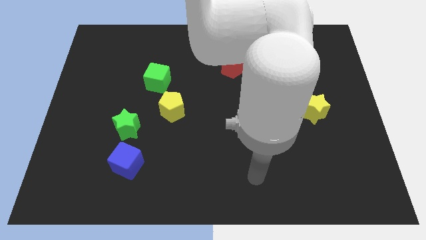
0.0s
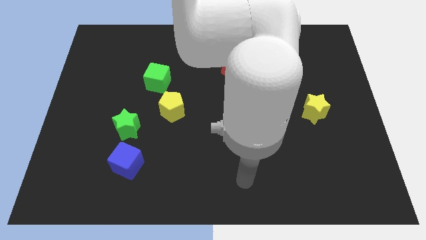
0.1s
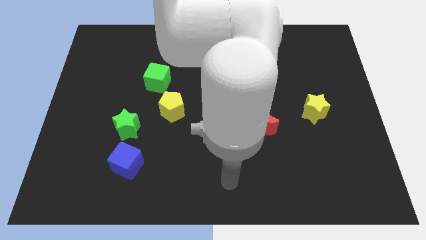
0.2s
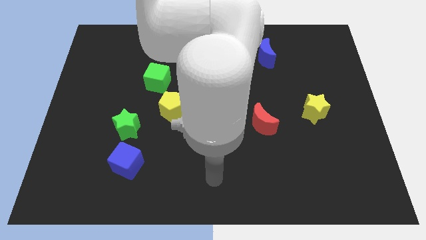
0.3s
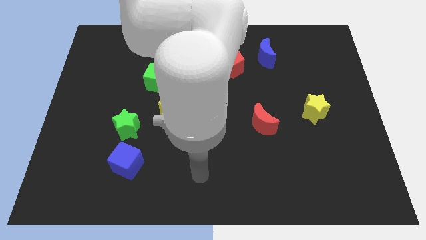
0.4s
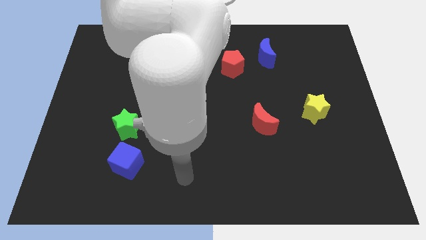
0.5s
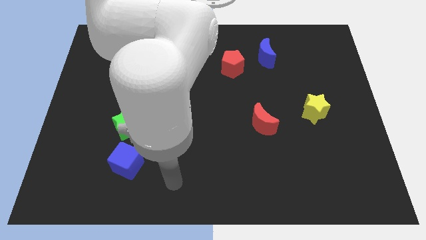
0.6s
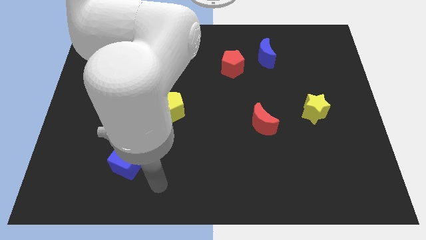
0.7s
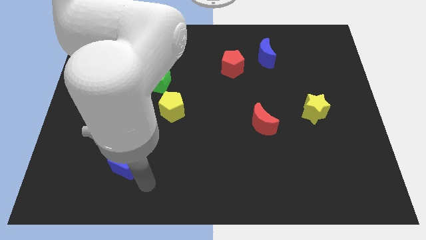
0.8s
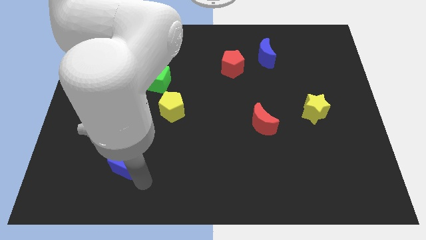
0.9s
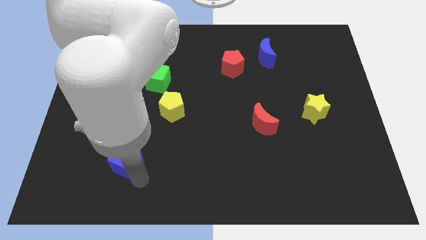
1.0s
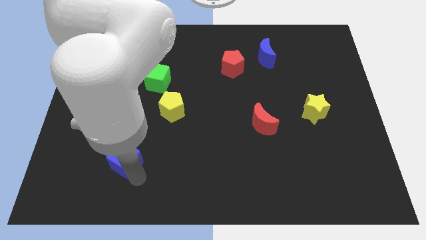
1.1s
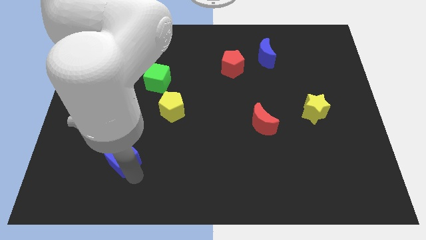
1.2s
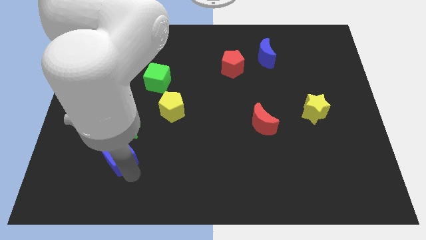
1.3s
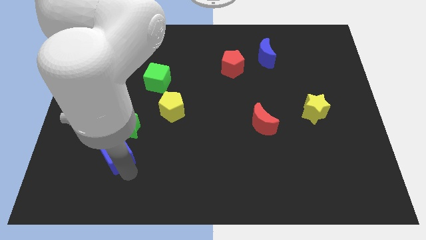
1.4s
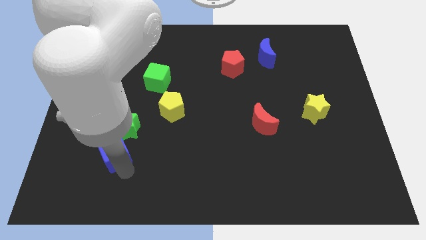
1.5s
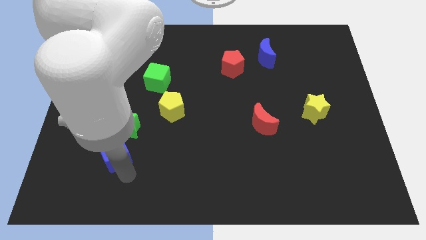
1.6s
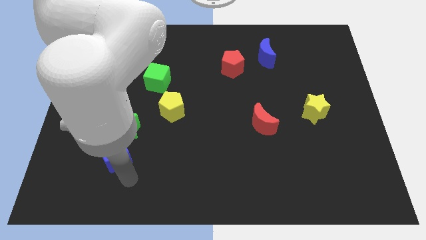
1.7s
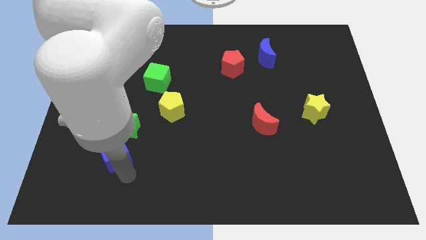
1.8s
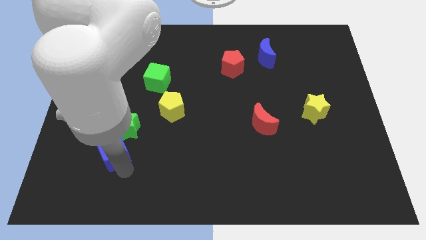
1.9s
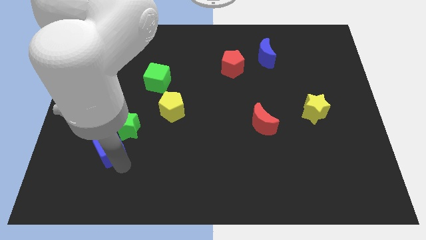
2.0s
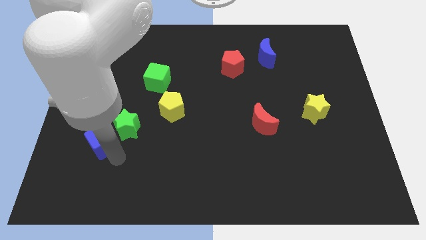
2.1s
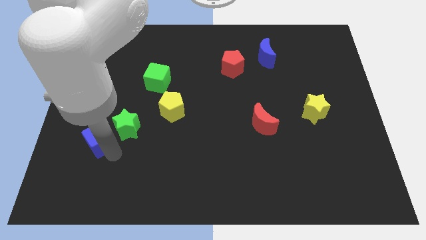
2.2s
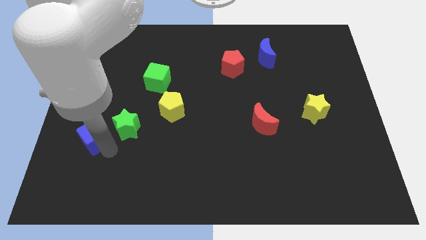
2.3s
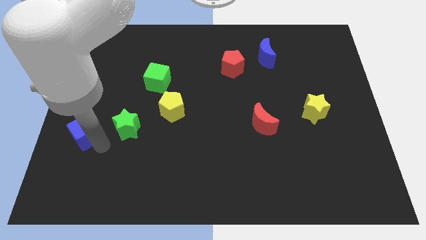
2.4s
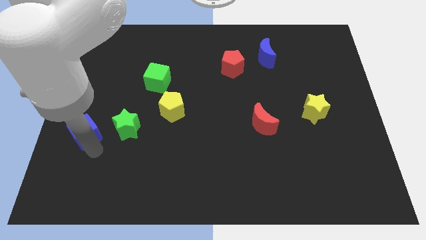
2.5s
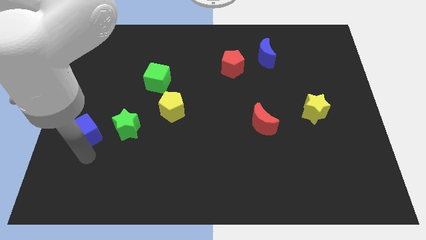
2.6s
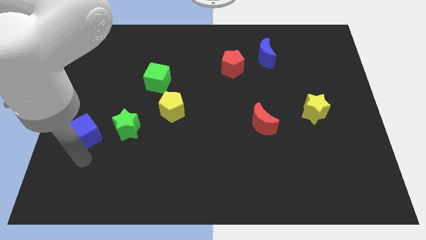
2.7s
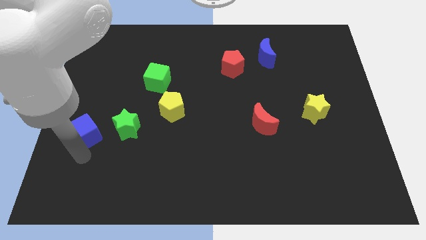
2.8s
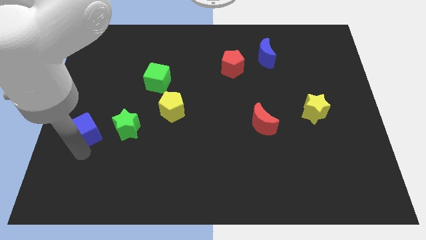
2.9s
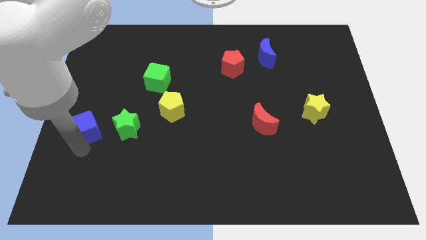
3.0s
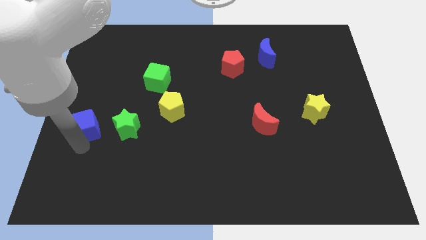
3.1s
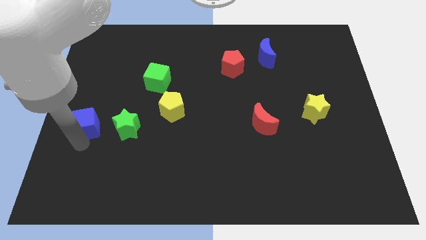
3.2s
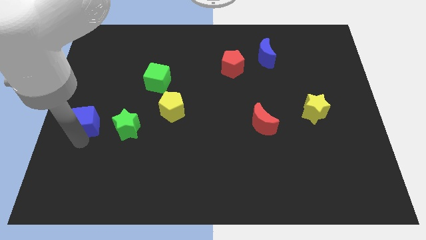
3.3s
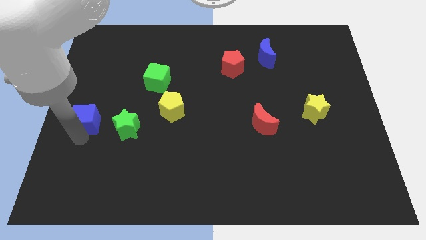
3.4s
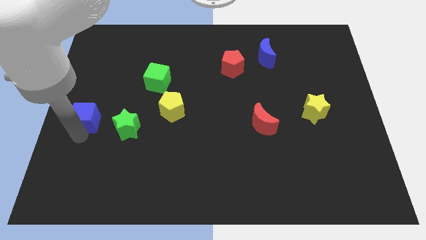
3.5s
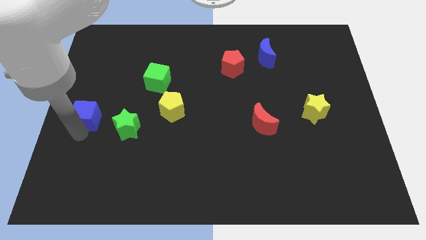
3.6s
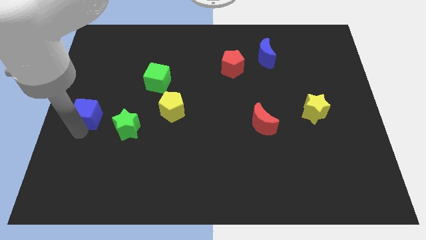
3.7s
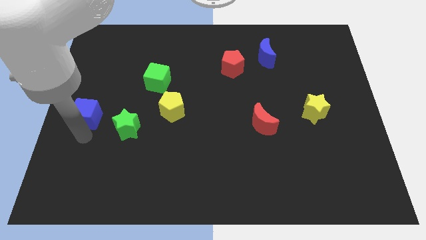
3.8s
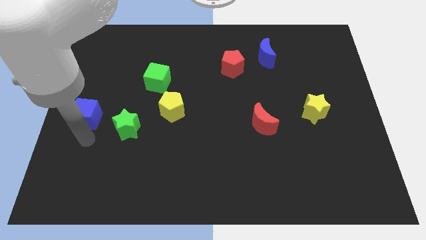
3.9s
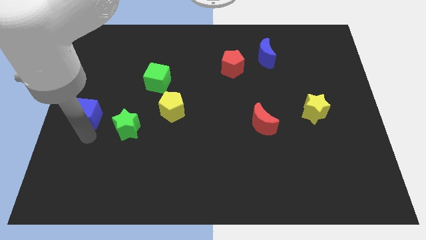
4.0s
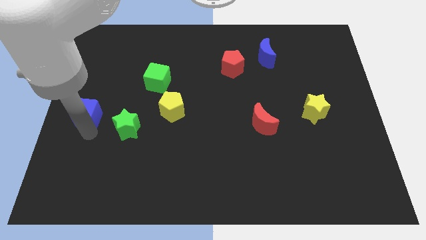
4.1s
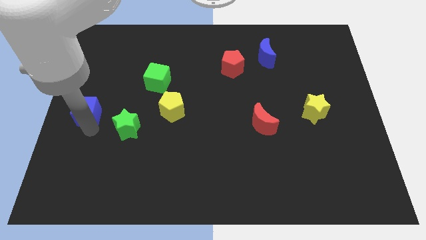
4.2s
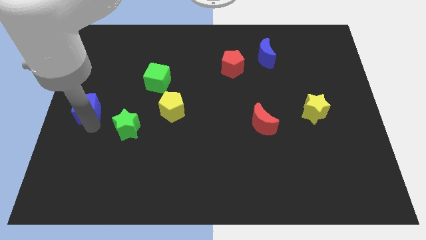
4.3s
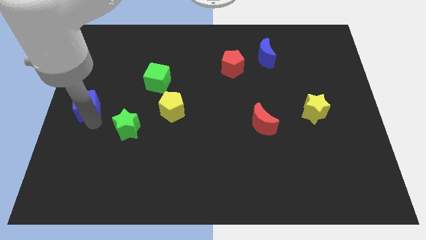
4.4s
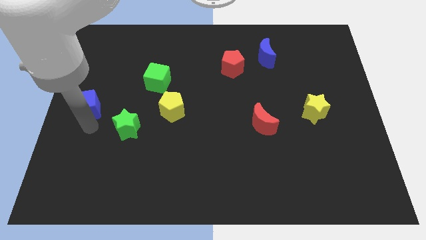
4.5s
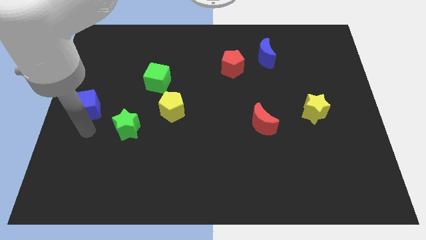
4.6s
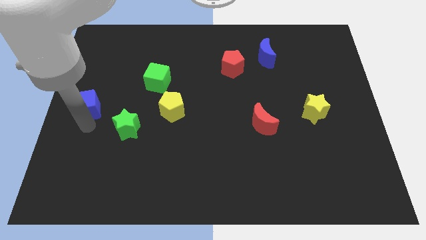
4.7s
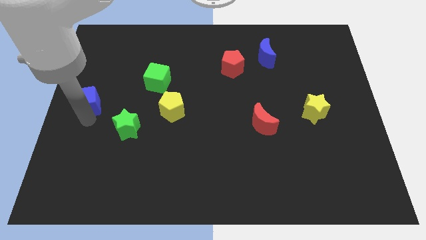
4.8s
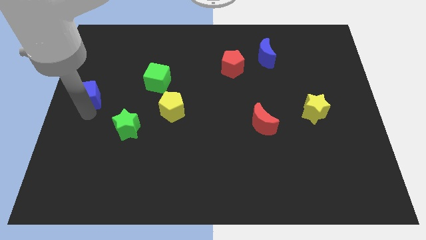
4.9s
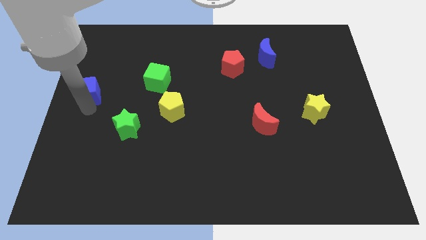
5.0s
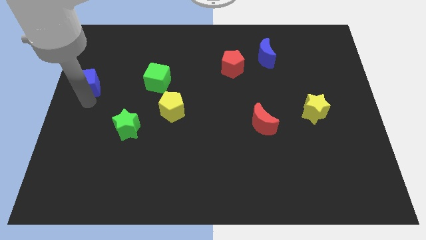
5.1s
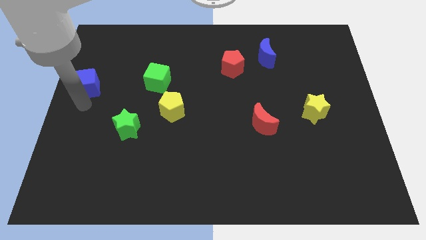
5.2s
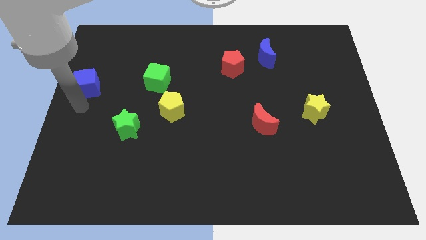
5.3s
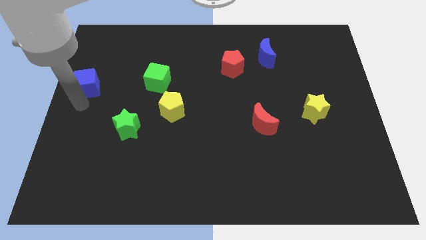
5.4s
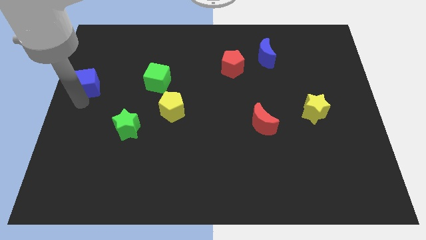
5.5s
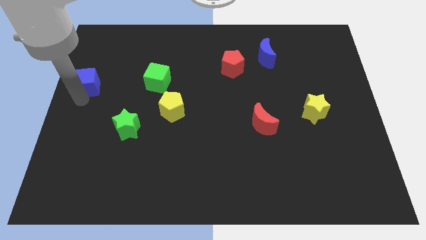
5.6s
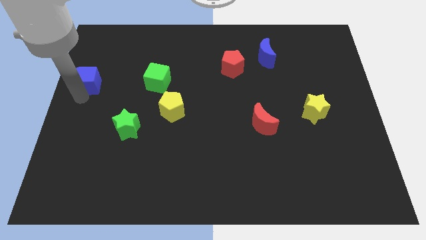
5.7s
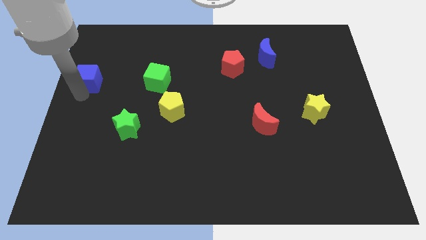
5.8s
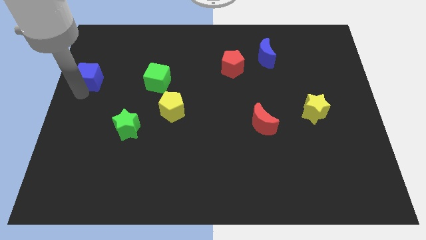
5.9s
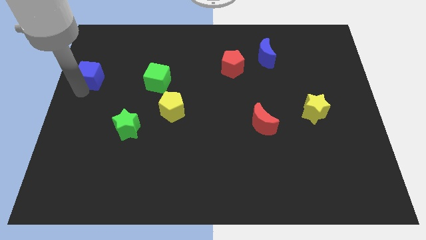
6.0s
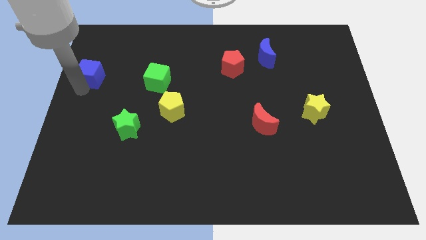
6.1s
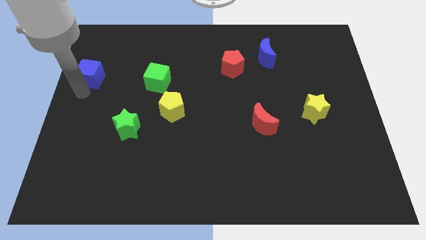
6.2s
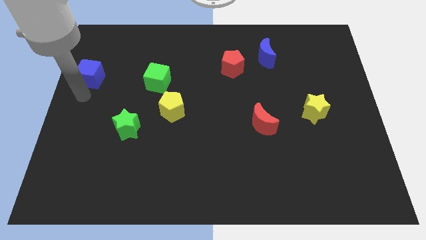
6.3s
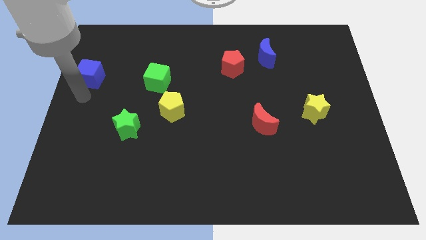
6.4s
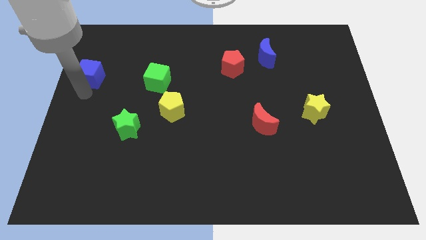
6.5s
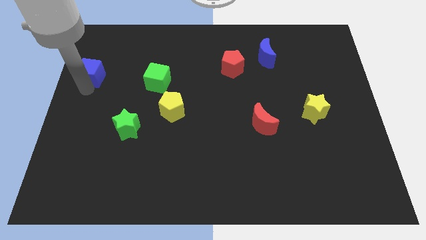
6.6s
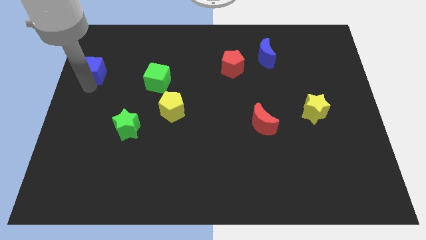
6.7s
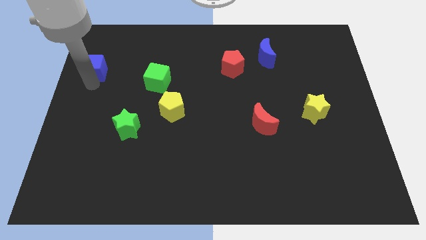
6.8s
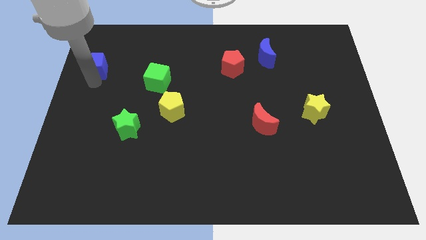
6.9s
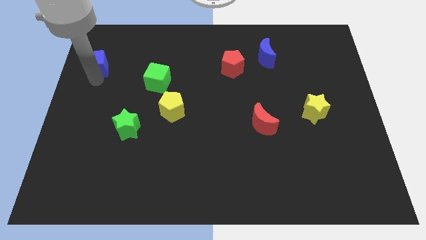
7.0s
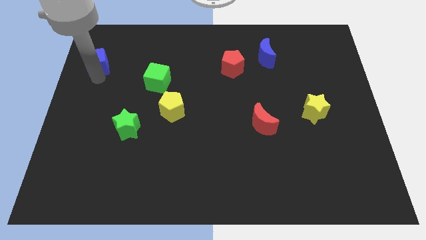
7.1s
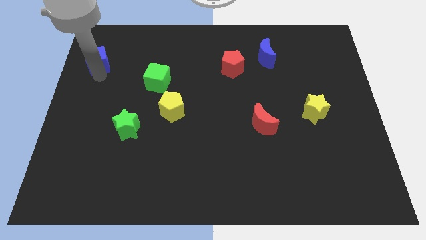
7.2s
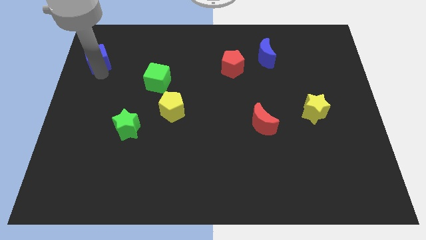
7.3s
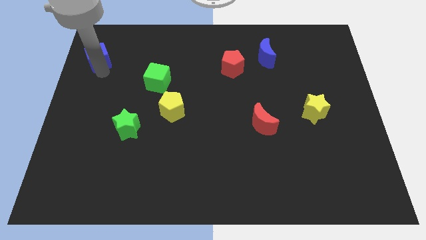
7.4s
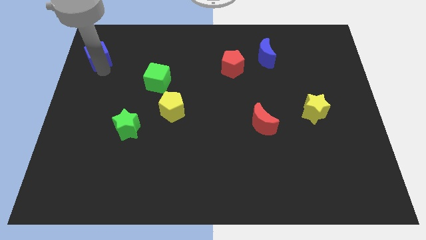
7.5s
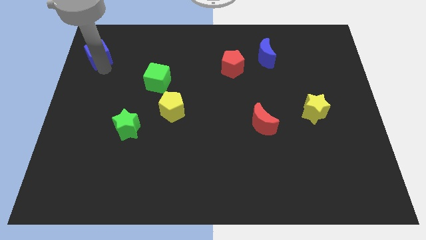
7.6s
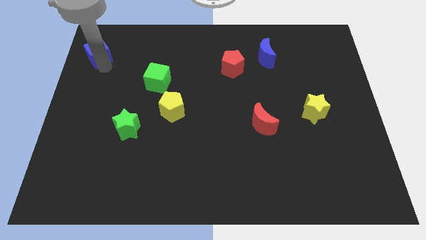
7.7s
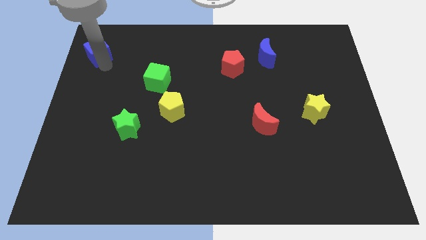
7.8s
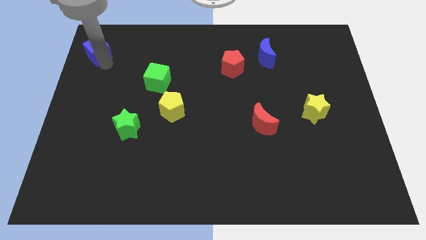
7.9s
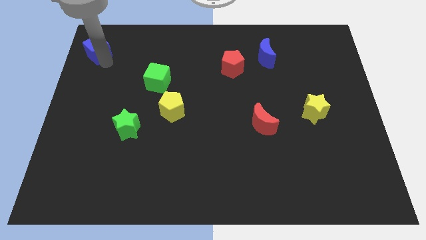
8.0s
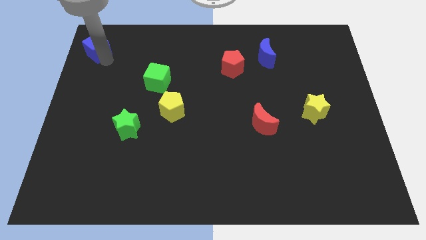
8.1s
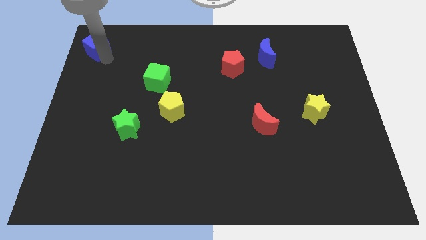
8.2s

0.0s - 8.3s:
push the blue cube to the upper left corner
